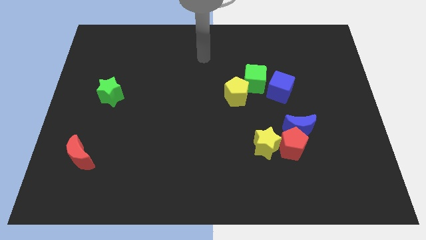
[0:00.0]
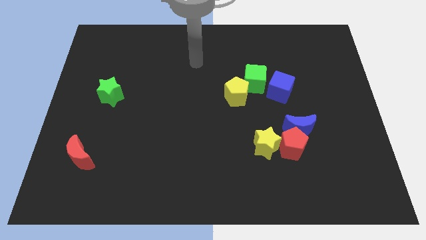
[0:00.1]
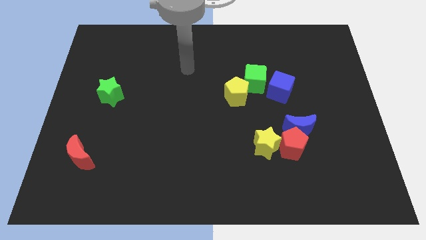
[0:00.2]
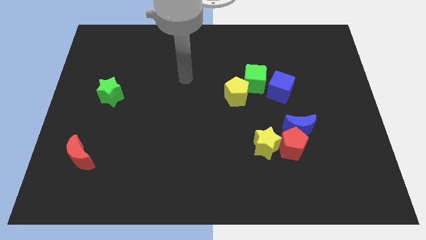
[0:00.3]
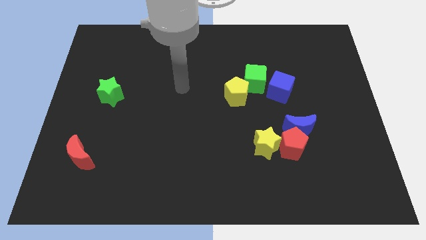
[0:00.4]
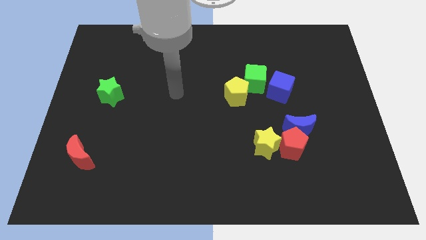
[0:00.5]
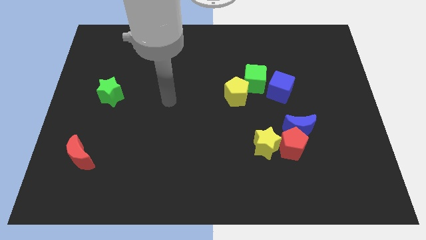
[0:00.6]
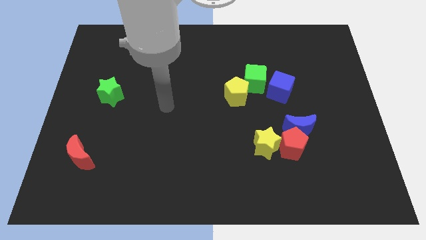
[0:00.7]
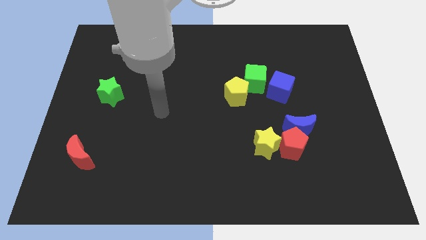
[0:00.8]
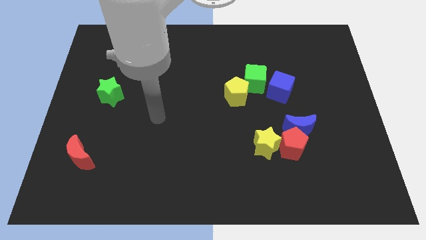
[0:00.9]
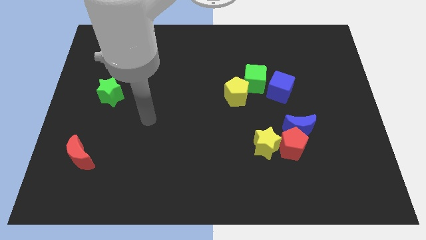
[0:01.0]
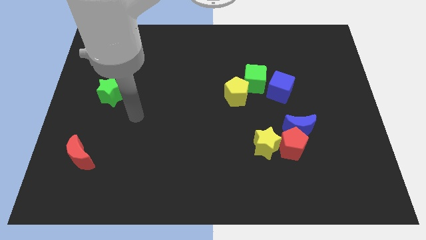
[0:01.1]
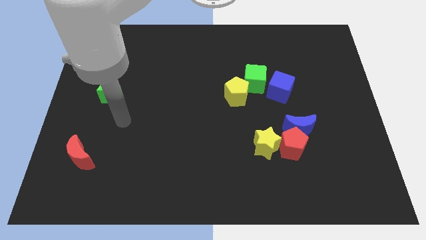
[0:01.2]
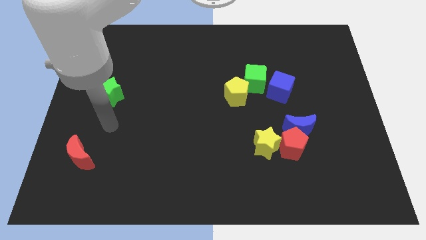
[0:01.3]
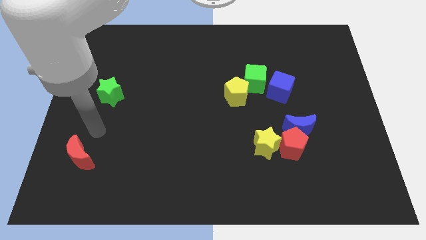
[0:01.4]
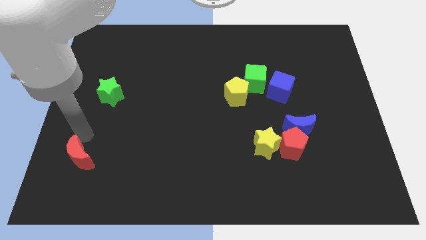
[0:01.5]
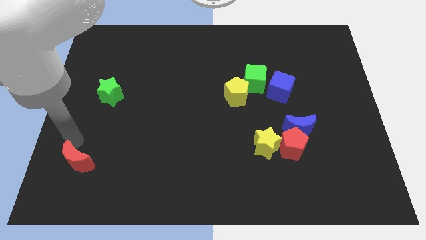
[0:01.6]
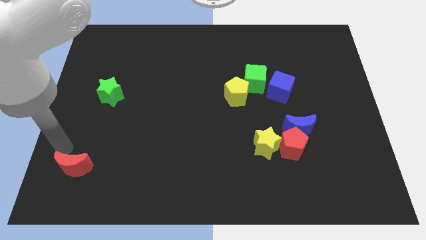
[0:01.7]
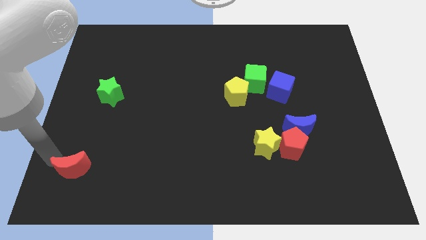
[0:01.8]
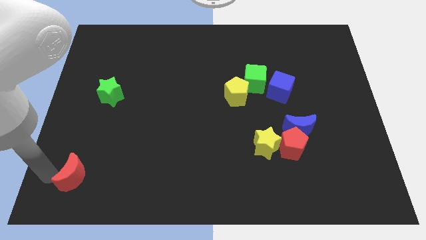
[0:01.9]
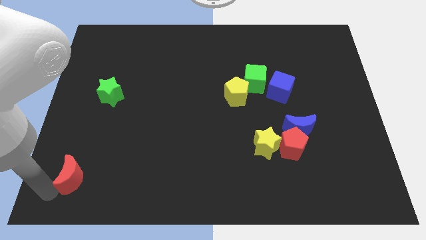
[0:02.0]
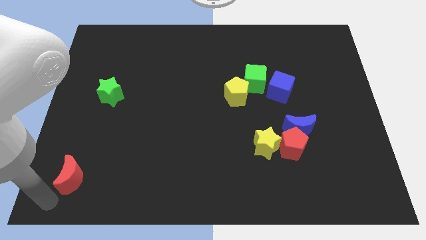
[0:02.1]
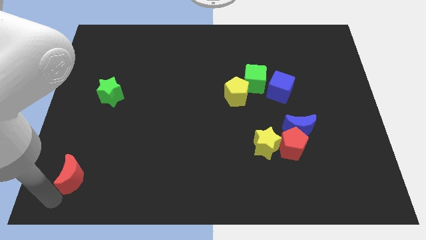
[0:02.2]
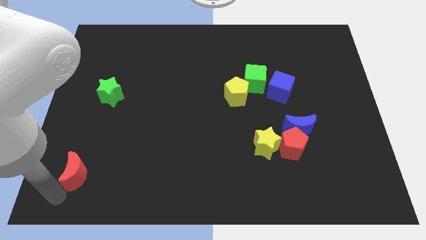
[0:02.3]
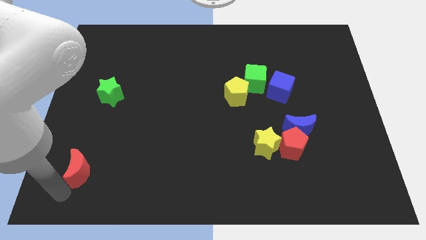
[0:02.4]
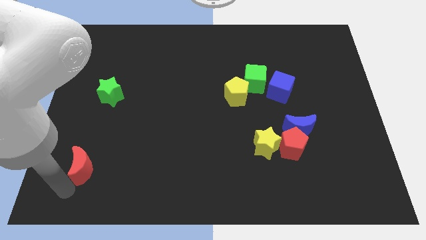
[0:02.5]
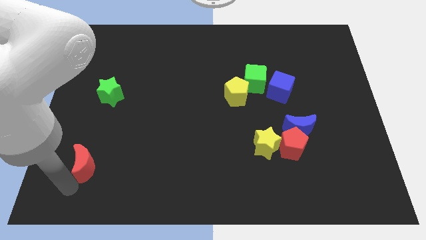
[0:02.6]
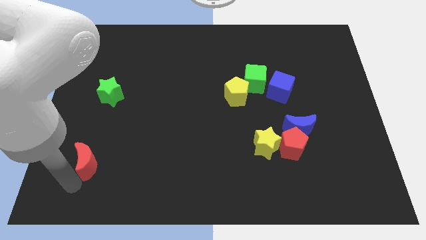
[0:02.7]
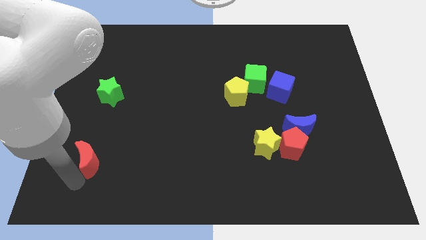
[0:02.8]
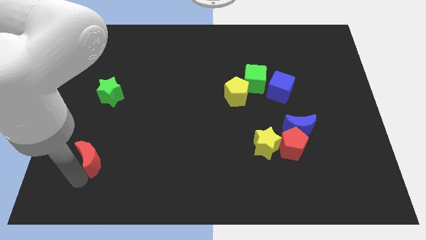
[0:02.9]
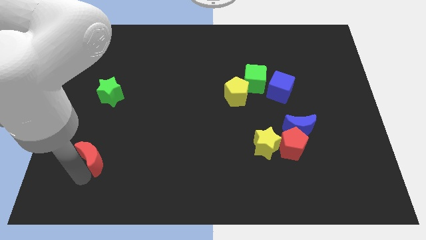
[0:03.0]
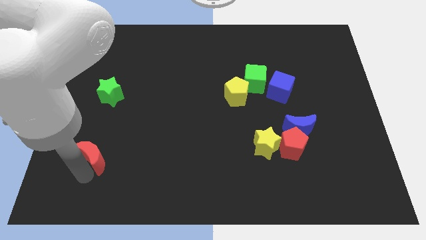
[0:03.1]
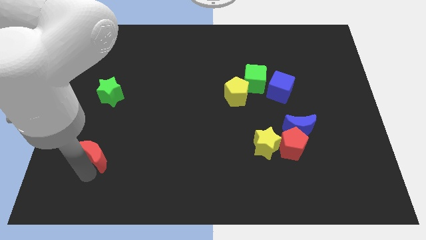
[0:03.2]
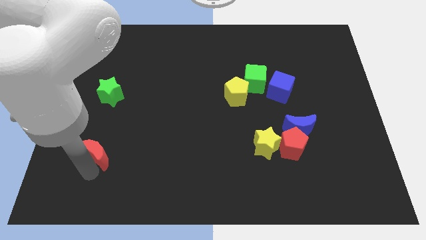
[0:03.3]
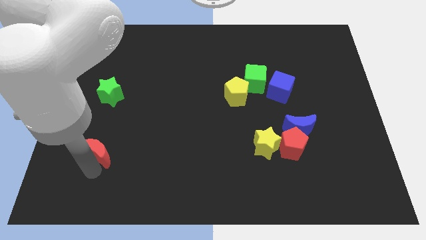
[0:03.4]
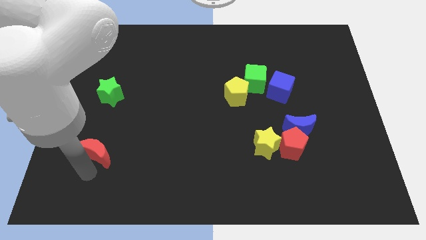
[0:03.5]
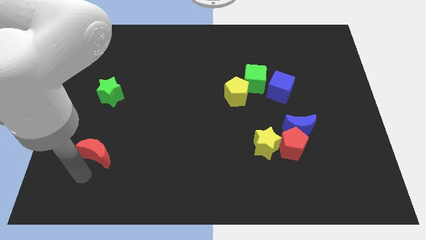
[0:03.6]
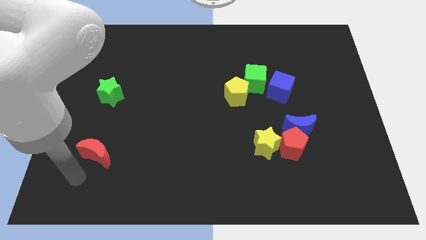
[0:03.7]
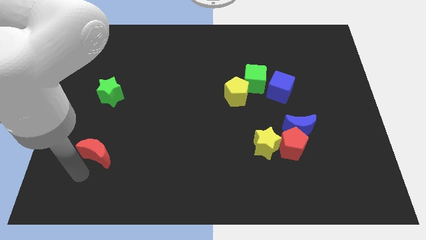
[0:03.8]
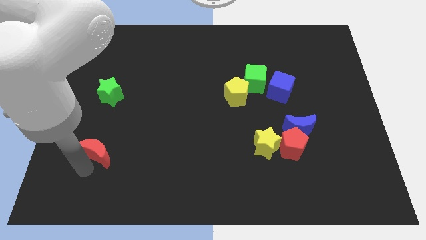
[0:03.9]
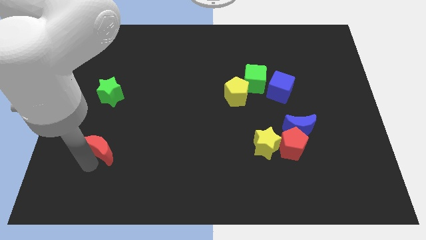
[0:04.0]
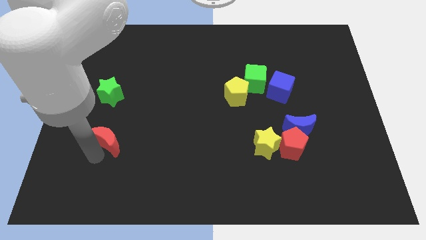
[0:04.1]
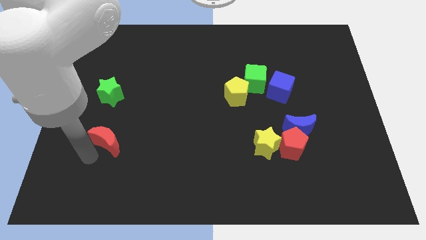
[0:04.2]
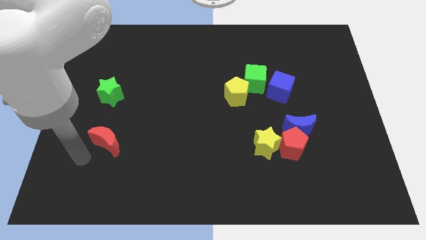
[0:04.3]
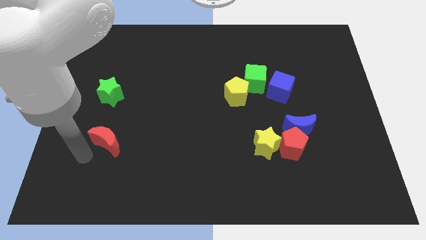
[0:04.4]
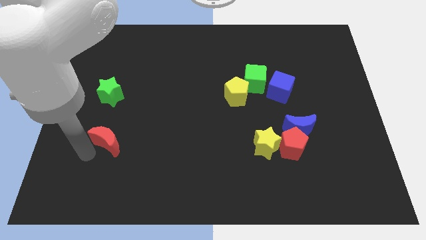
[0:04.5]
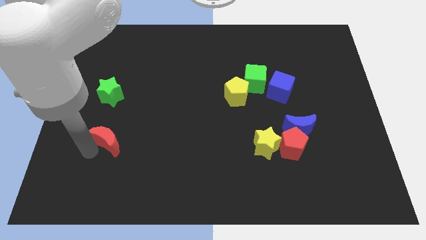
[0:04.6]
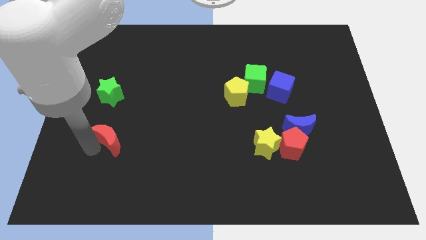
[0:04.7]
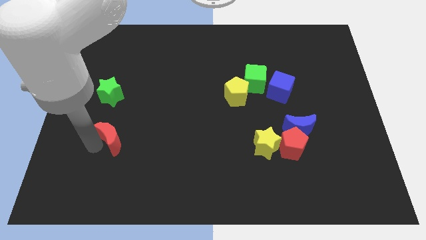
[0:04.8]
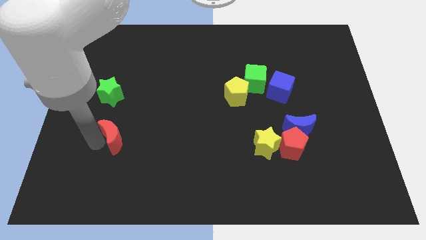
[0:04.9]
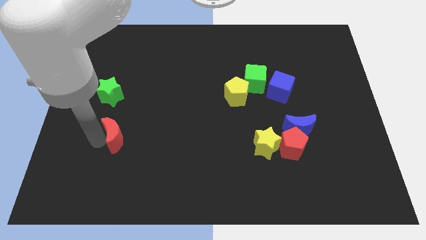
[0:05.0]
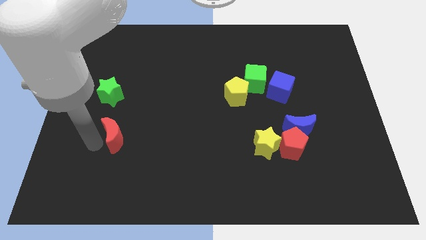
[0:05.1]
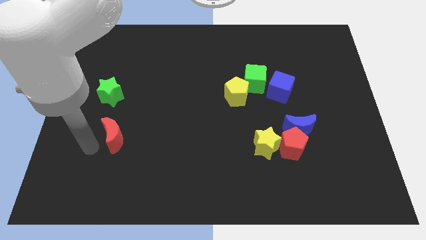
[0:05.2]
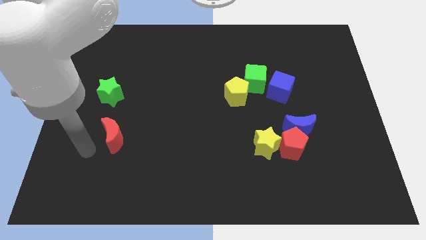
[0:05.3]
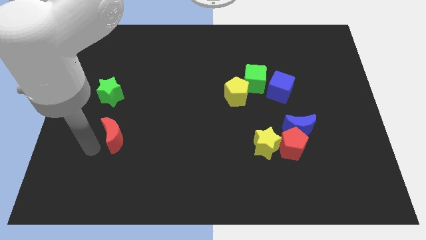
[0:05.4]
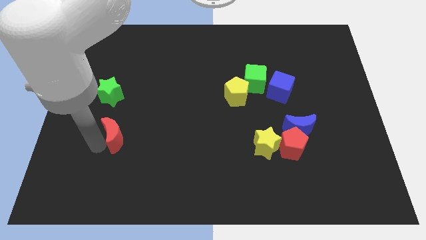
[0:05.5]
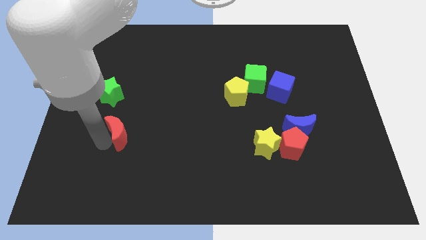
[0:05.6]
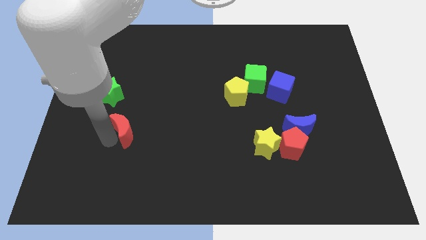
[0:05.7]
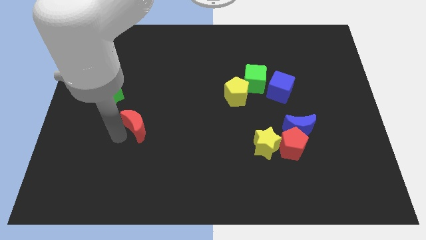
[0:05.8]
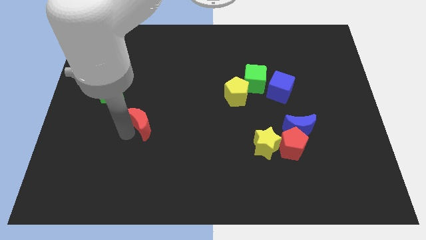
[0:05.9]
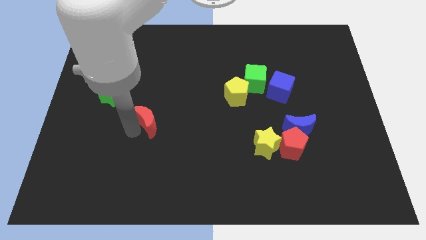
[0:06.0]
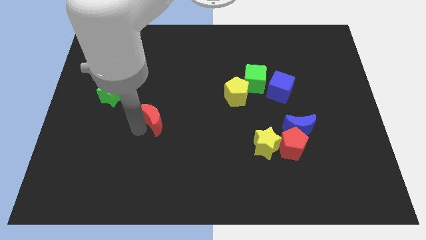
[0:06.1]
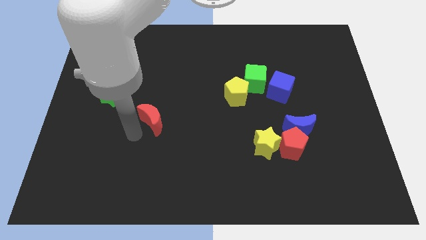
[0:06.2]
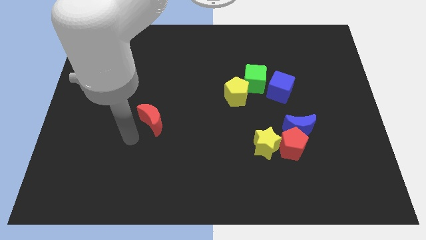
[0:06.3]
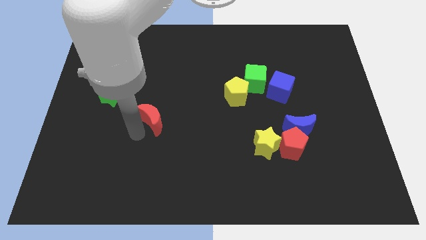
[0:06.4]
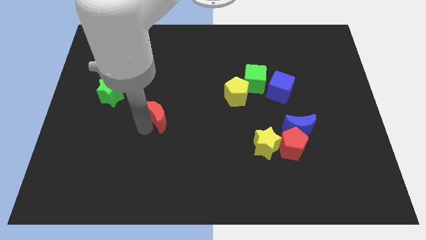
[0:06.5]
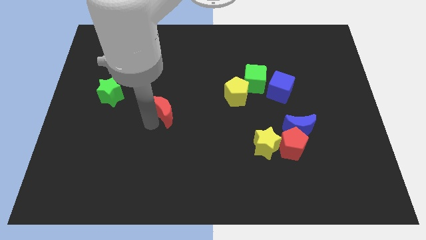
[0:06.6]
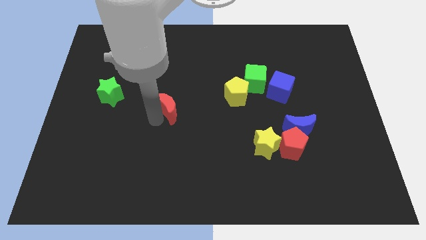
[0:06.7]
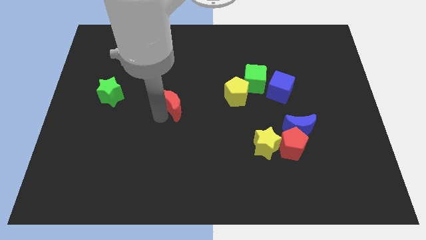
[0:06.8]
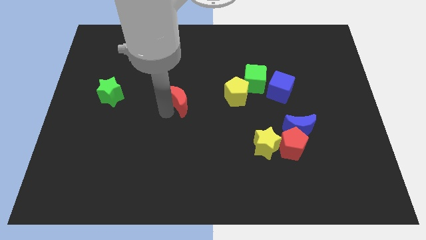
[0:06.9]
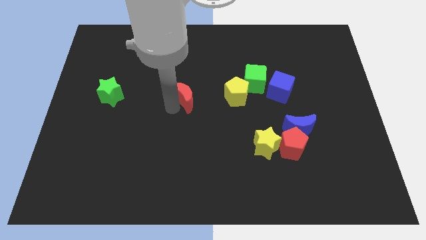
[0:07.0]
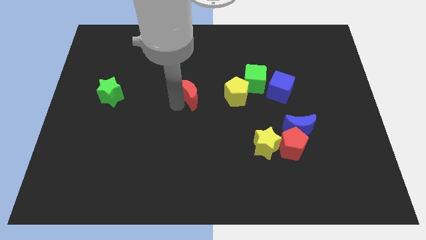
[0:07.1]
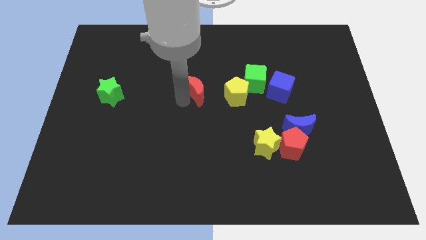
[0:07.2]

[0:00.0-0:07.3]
move the red moon left of the green cube

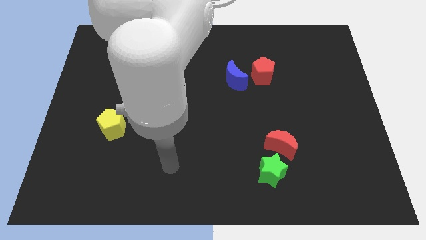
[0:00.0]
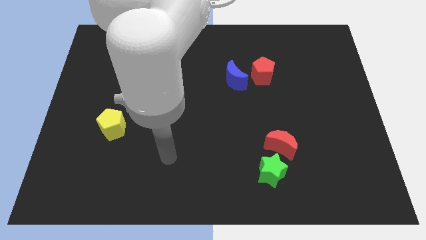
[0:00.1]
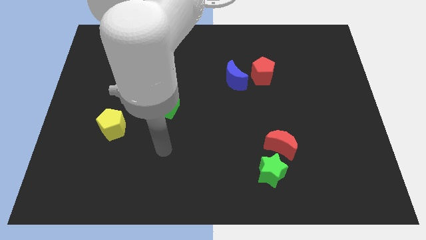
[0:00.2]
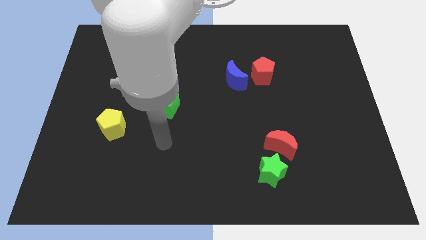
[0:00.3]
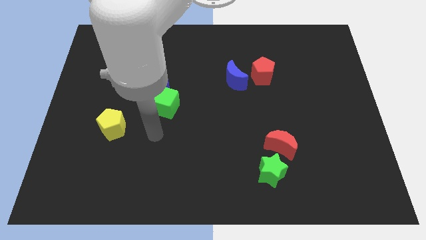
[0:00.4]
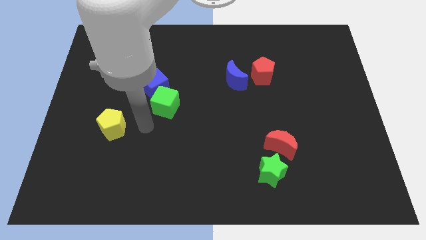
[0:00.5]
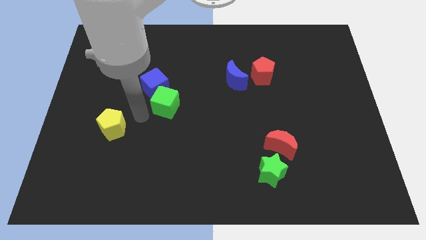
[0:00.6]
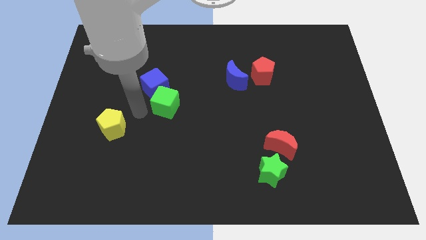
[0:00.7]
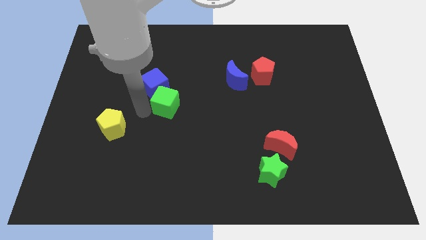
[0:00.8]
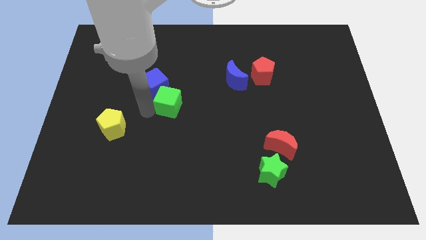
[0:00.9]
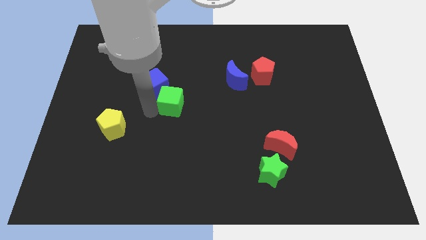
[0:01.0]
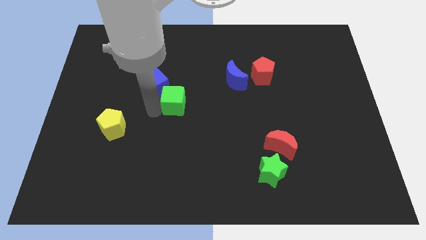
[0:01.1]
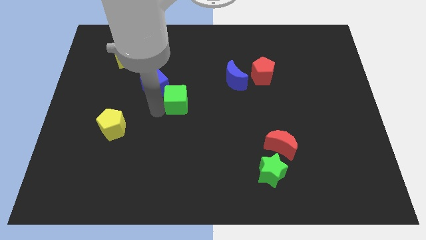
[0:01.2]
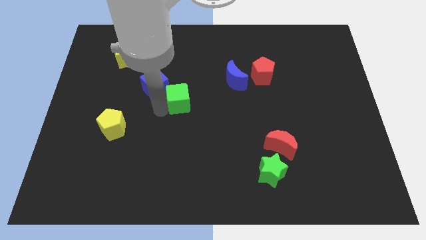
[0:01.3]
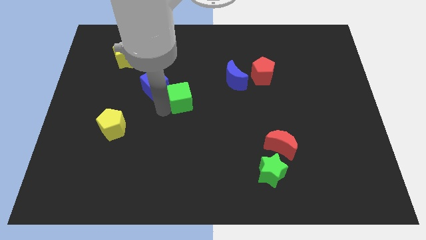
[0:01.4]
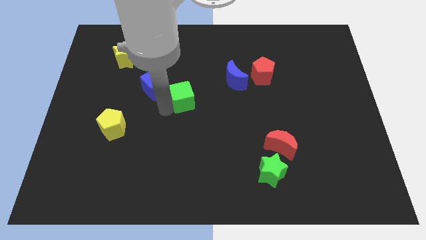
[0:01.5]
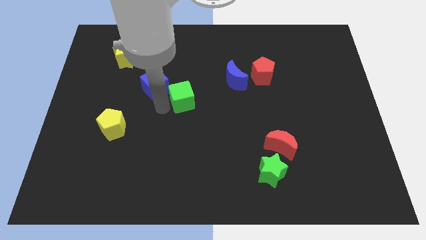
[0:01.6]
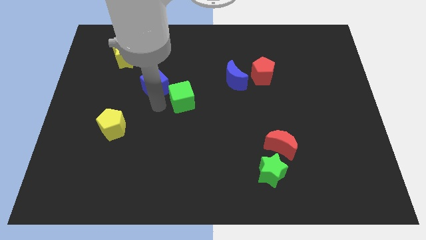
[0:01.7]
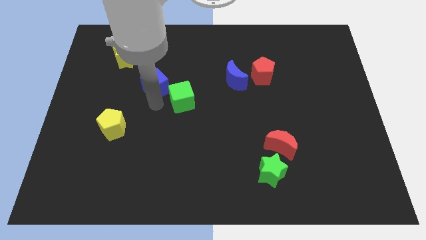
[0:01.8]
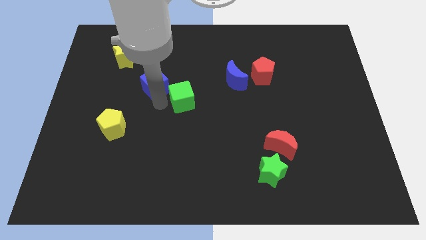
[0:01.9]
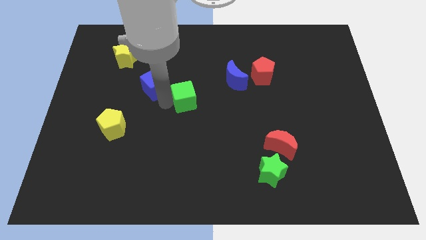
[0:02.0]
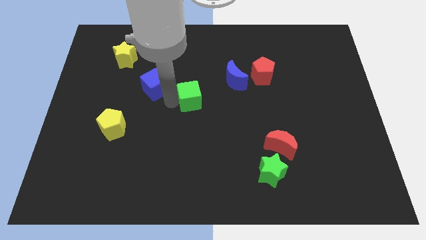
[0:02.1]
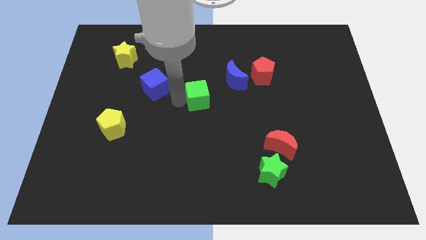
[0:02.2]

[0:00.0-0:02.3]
push the green cube to the bottom left of the blue moon
